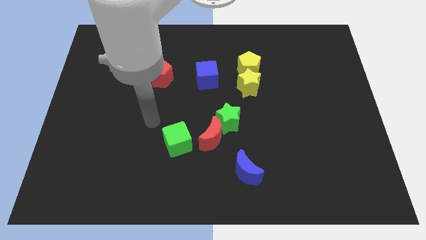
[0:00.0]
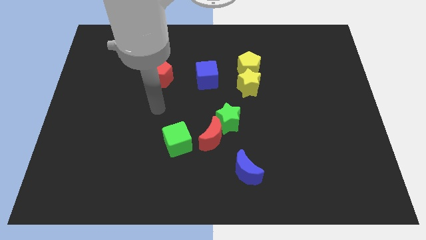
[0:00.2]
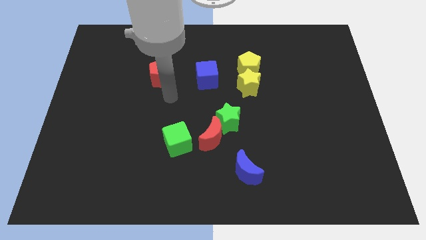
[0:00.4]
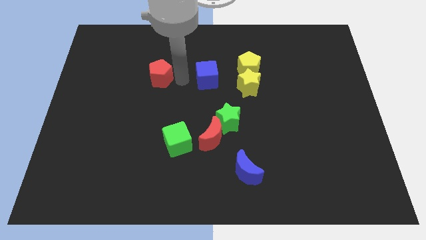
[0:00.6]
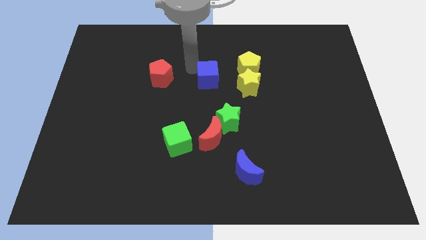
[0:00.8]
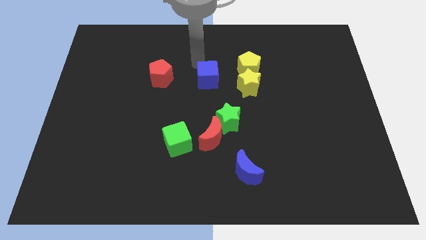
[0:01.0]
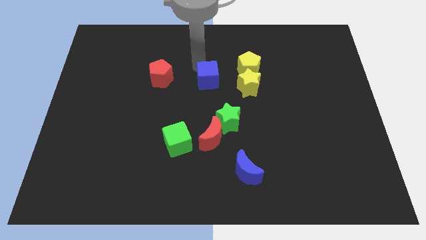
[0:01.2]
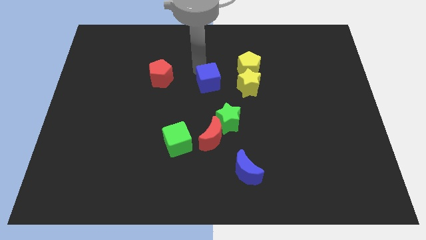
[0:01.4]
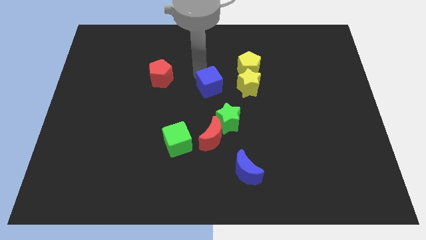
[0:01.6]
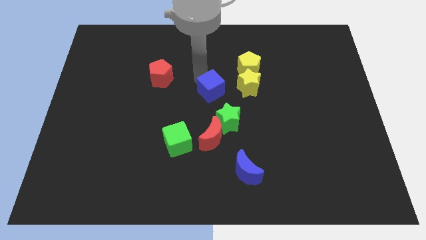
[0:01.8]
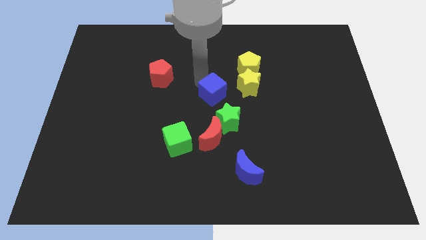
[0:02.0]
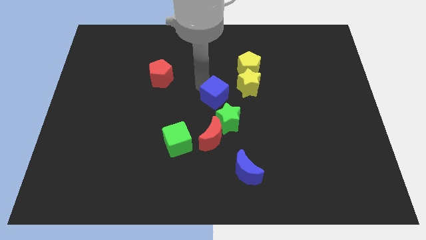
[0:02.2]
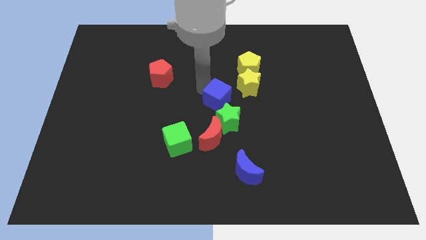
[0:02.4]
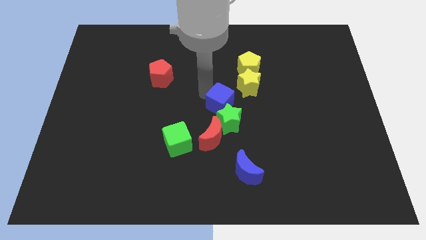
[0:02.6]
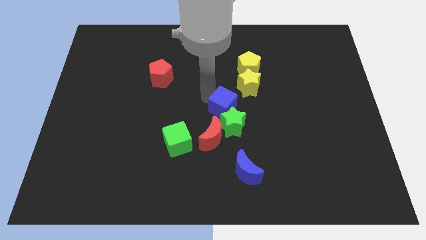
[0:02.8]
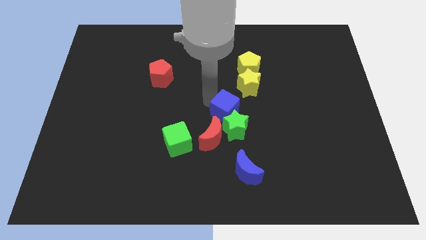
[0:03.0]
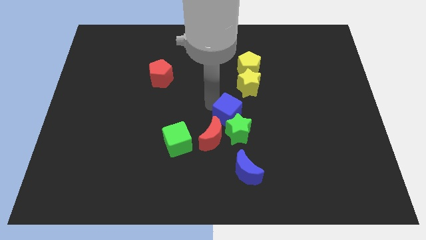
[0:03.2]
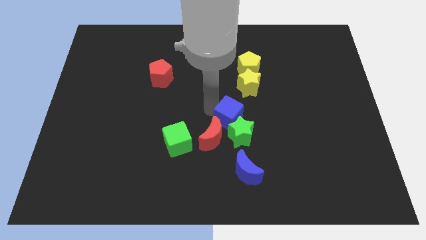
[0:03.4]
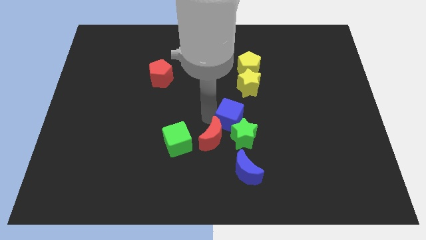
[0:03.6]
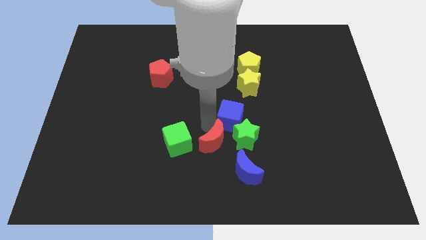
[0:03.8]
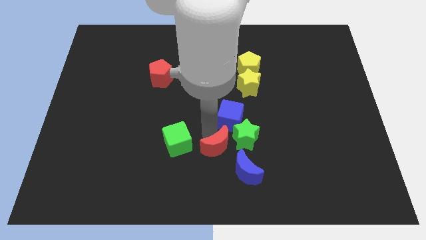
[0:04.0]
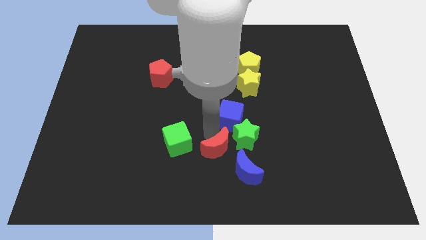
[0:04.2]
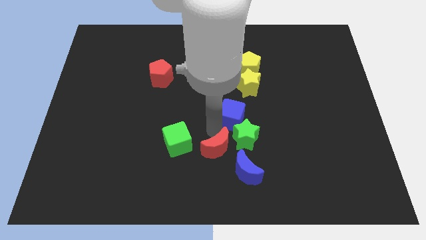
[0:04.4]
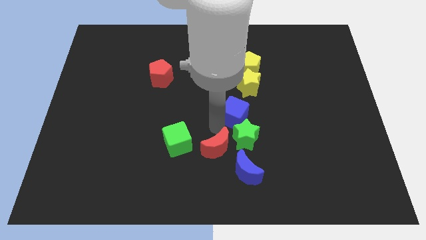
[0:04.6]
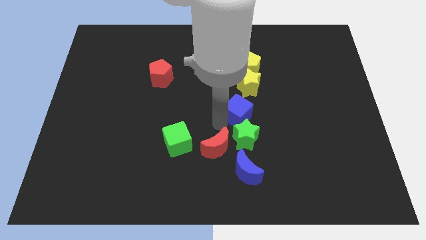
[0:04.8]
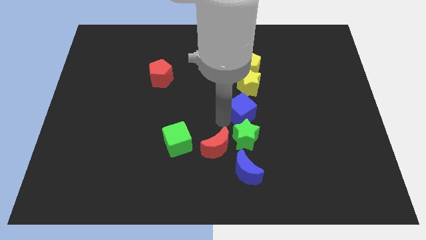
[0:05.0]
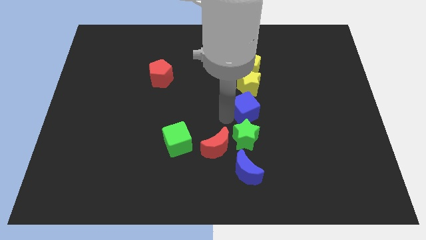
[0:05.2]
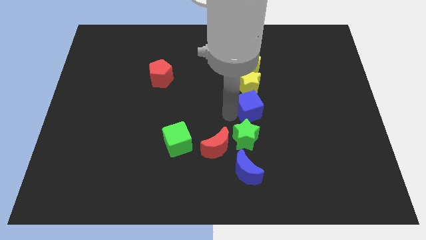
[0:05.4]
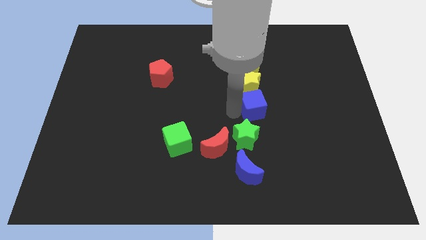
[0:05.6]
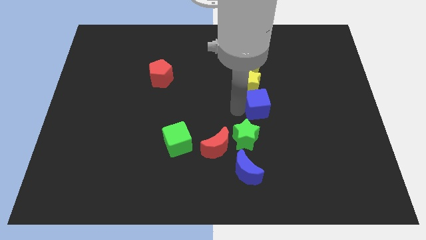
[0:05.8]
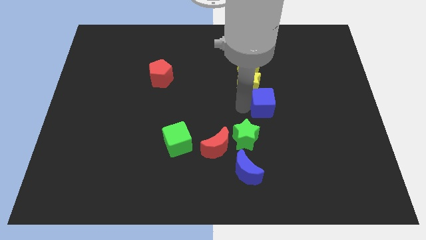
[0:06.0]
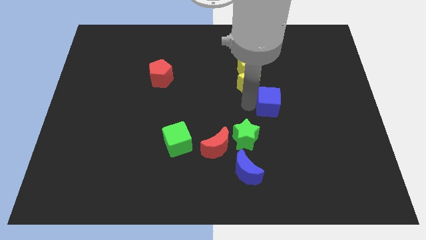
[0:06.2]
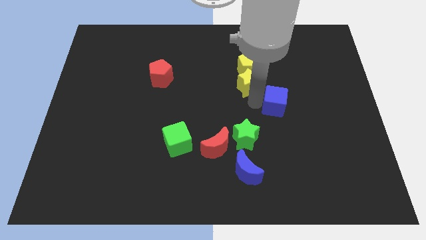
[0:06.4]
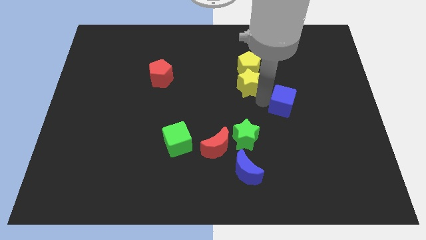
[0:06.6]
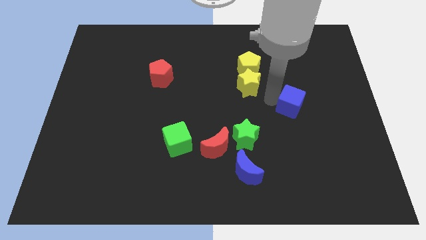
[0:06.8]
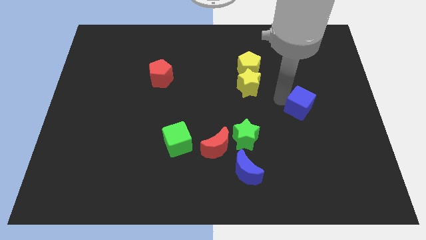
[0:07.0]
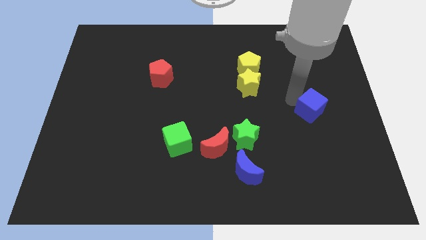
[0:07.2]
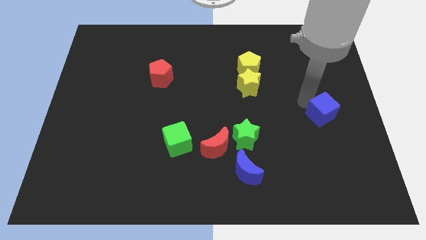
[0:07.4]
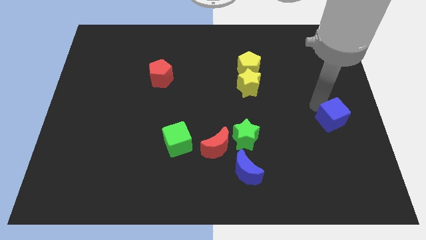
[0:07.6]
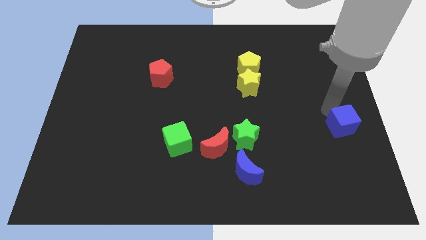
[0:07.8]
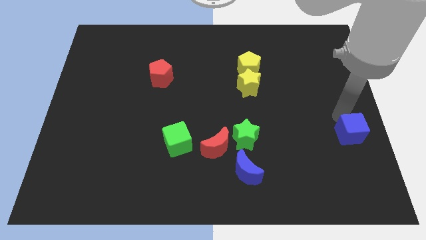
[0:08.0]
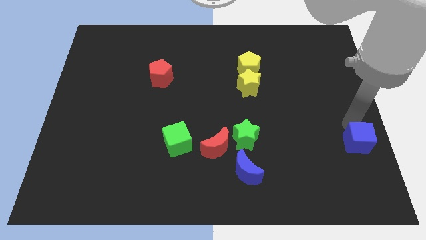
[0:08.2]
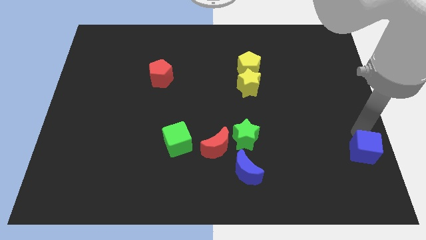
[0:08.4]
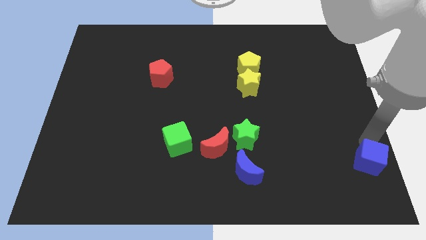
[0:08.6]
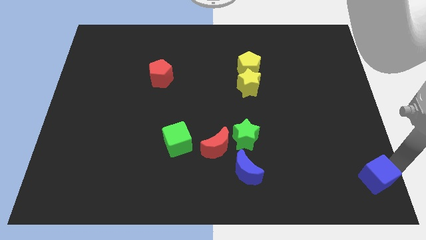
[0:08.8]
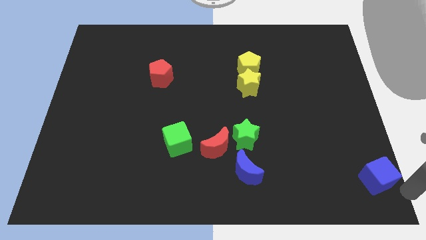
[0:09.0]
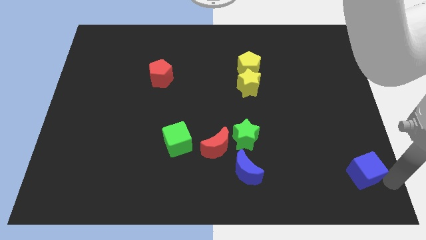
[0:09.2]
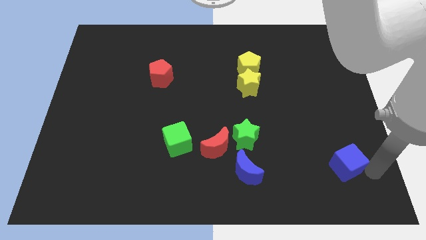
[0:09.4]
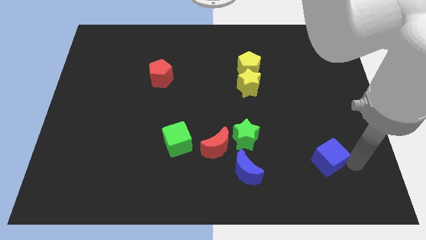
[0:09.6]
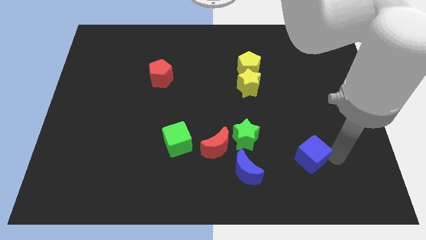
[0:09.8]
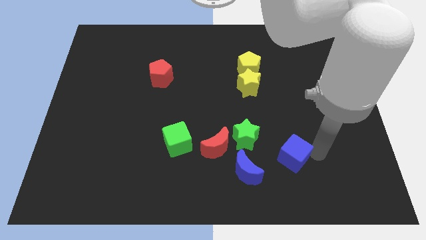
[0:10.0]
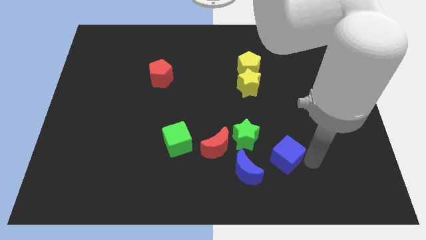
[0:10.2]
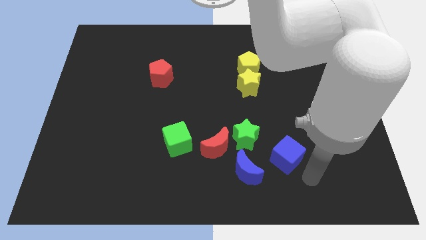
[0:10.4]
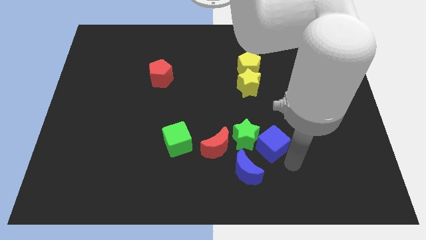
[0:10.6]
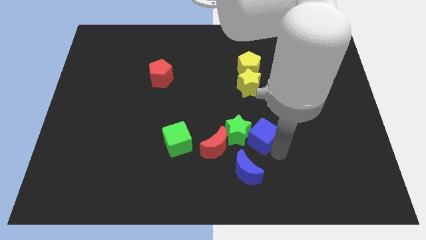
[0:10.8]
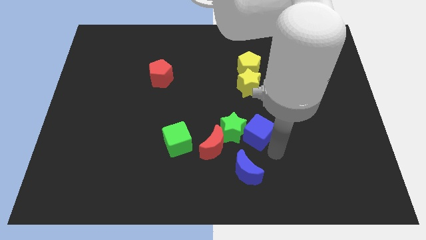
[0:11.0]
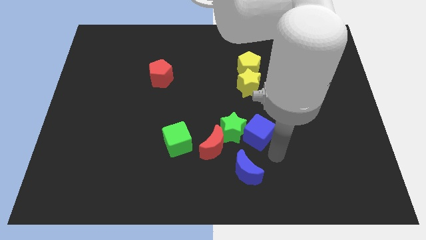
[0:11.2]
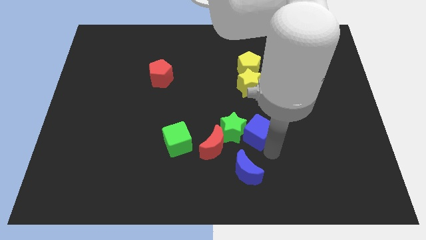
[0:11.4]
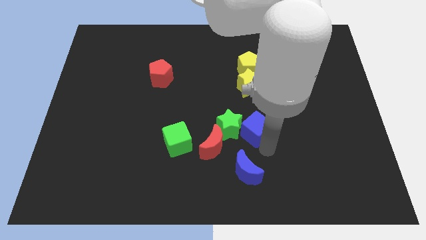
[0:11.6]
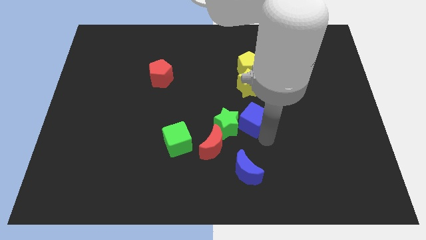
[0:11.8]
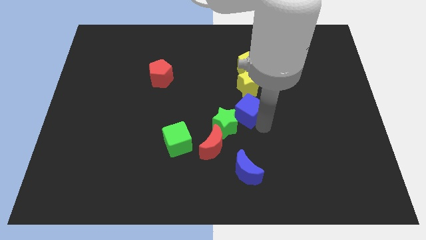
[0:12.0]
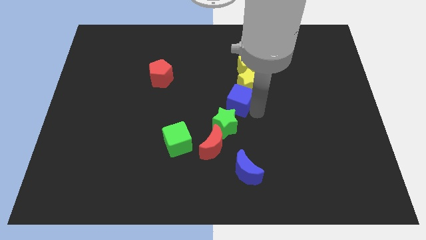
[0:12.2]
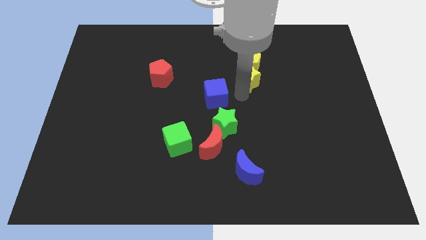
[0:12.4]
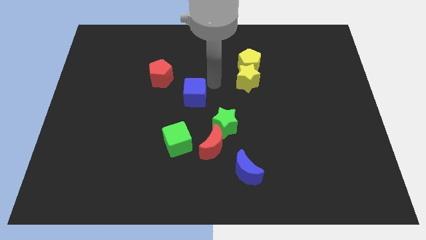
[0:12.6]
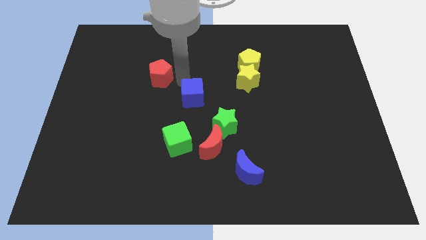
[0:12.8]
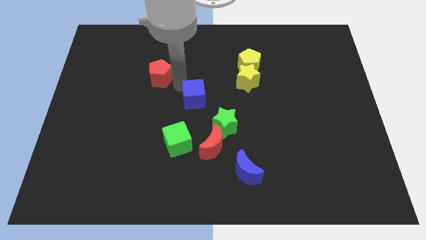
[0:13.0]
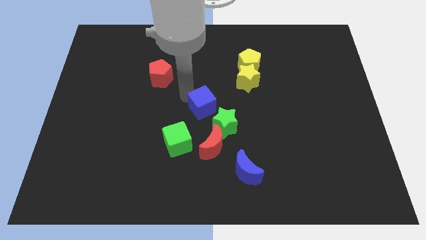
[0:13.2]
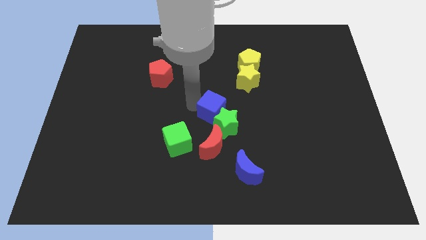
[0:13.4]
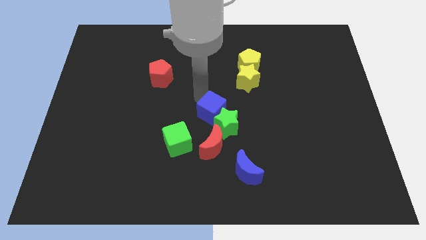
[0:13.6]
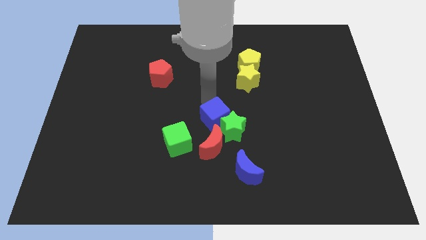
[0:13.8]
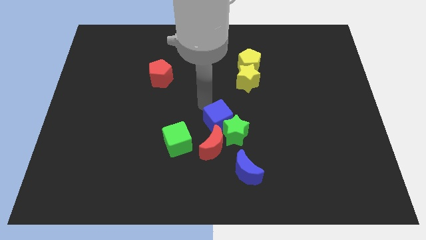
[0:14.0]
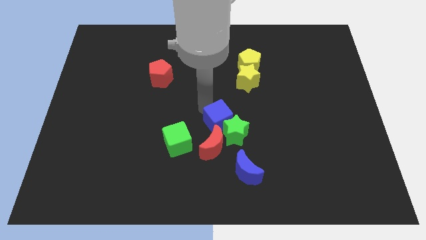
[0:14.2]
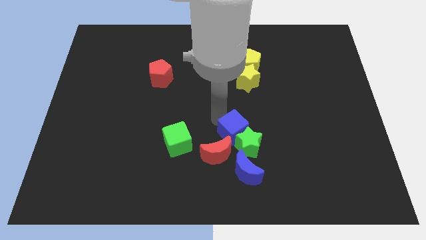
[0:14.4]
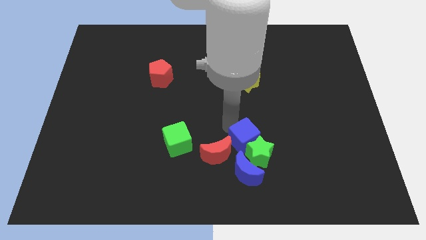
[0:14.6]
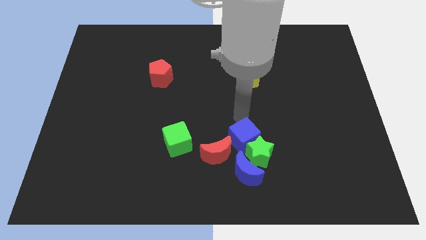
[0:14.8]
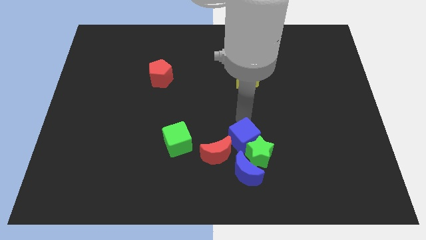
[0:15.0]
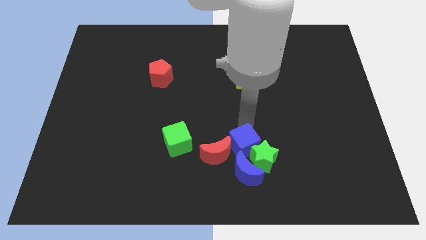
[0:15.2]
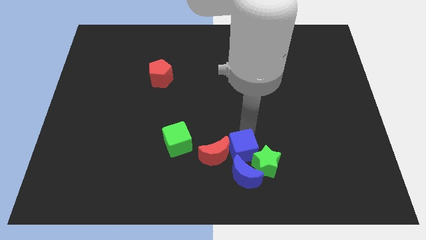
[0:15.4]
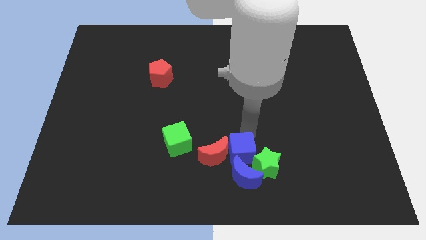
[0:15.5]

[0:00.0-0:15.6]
push the blue cube towards the blue moon
